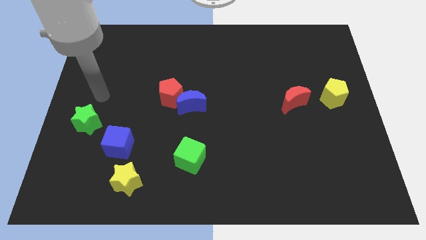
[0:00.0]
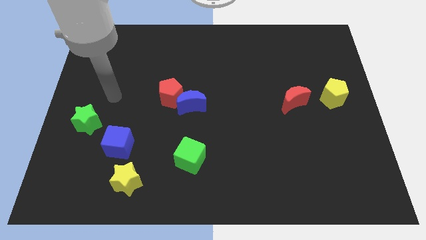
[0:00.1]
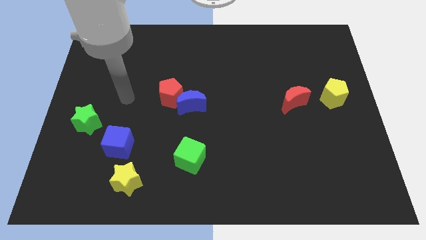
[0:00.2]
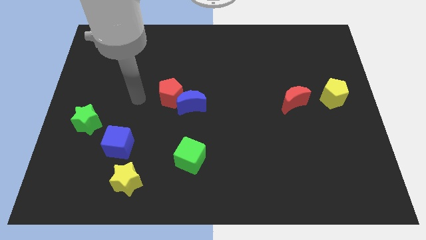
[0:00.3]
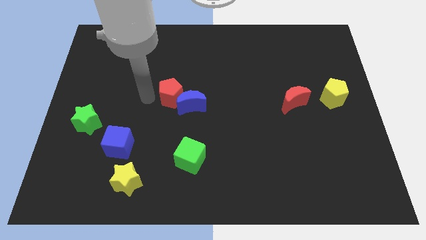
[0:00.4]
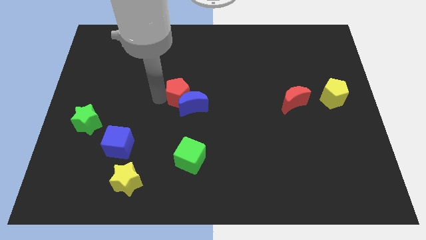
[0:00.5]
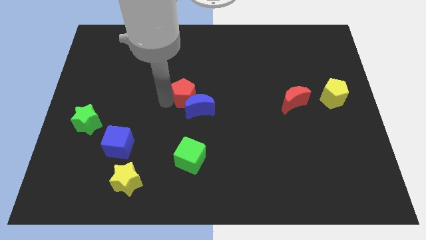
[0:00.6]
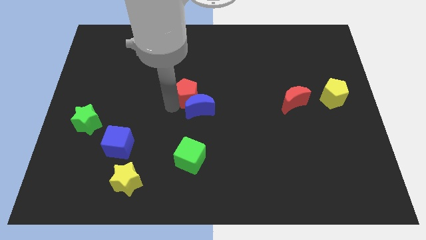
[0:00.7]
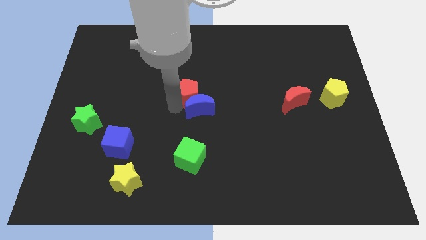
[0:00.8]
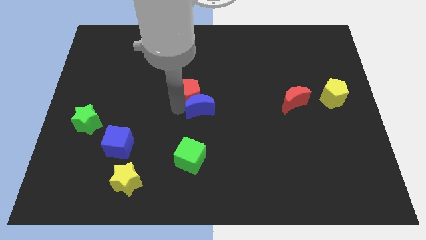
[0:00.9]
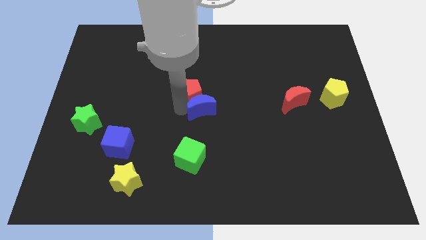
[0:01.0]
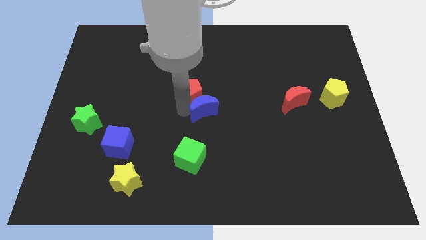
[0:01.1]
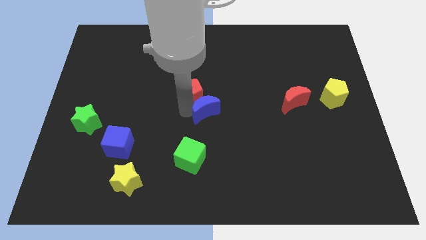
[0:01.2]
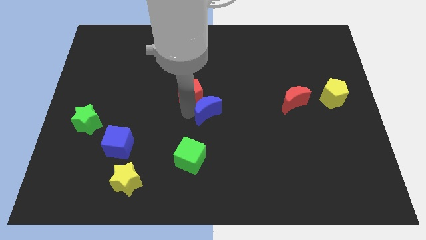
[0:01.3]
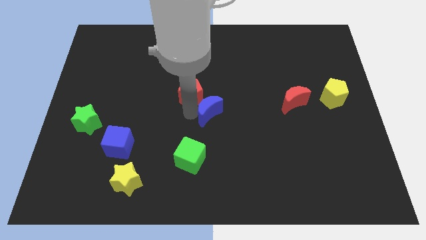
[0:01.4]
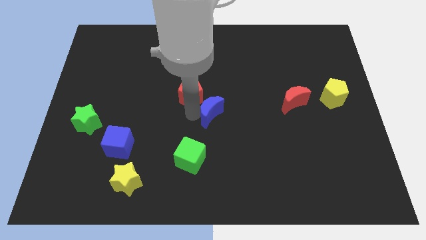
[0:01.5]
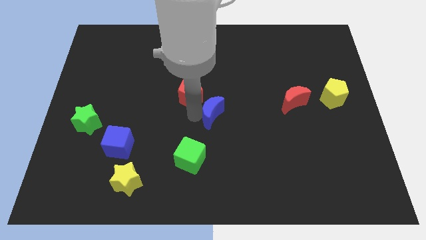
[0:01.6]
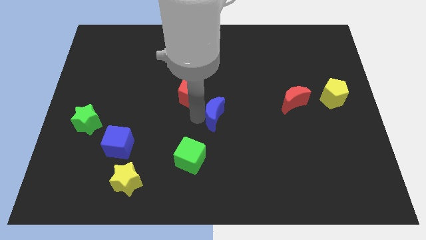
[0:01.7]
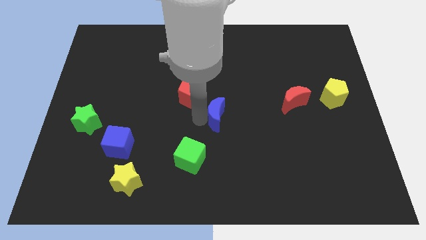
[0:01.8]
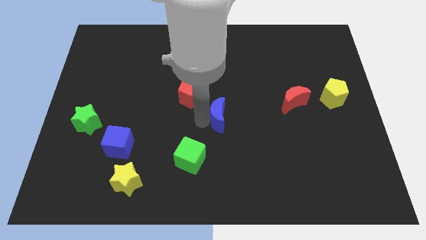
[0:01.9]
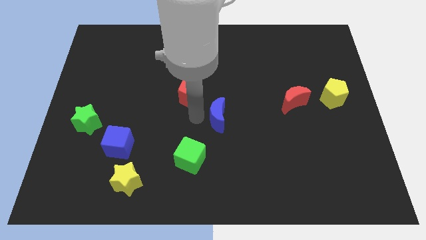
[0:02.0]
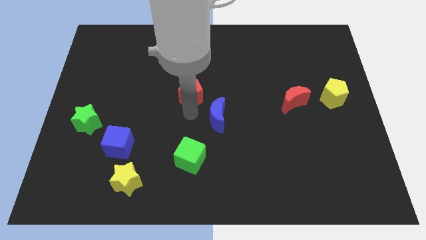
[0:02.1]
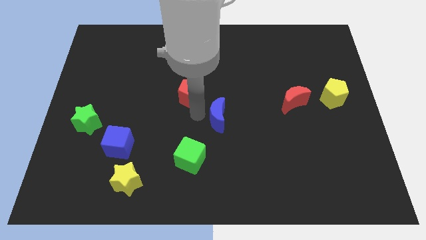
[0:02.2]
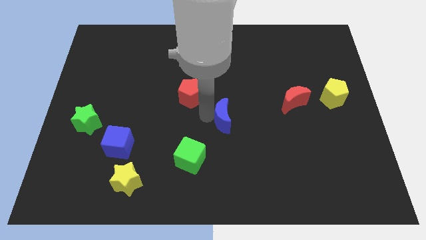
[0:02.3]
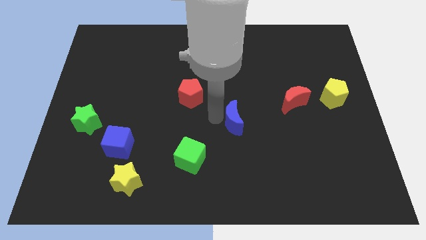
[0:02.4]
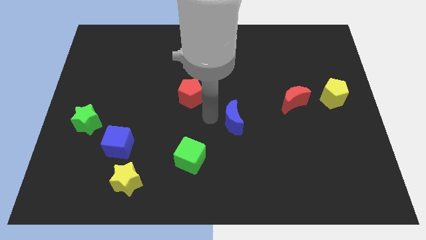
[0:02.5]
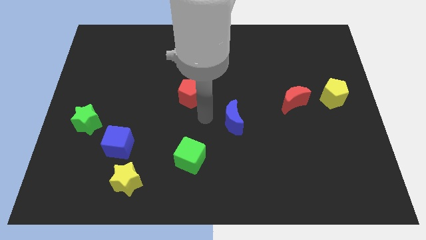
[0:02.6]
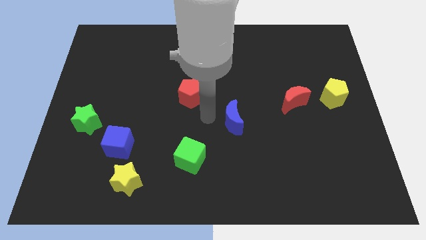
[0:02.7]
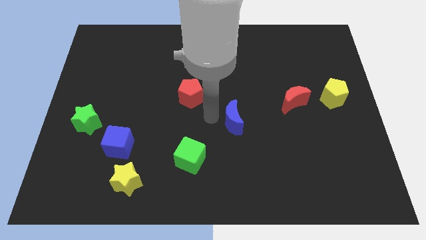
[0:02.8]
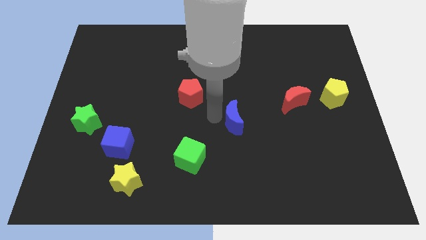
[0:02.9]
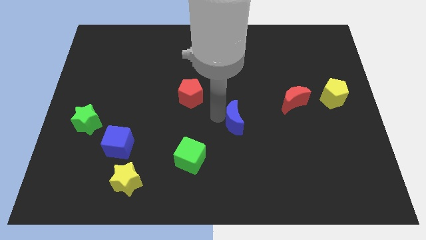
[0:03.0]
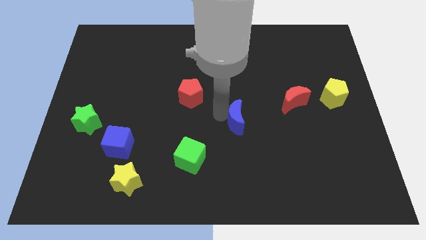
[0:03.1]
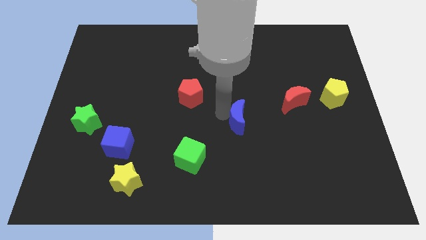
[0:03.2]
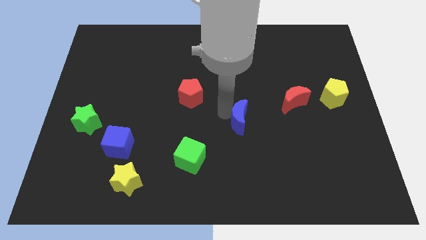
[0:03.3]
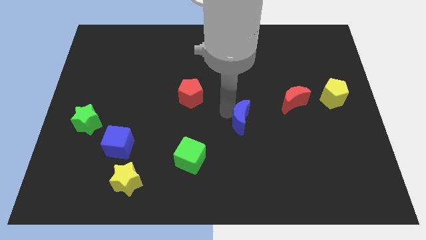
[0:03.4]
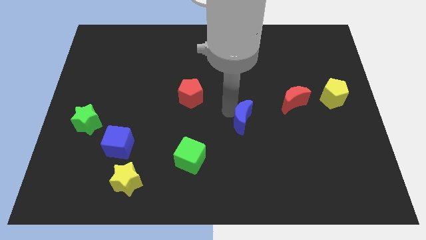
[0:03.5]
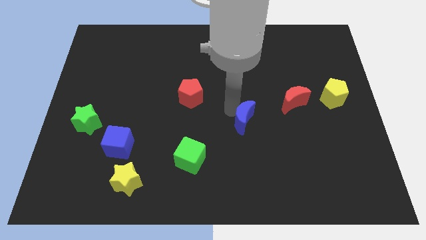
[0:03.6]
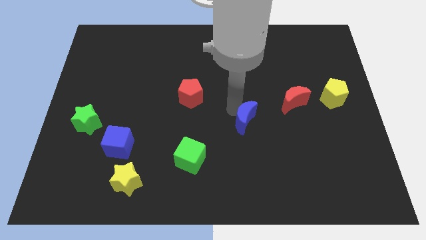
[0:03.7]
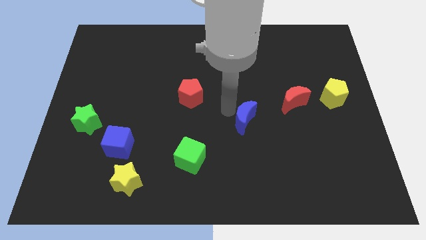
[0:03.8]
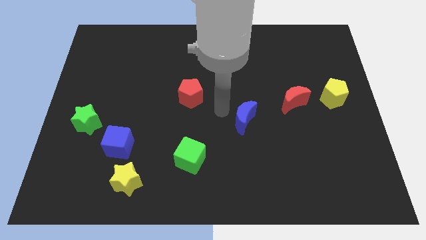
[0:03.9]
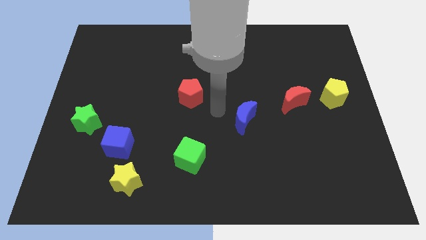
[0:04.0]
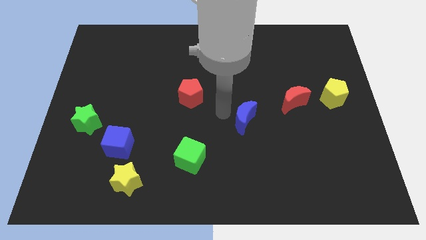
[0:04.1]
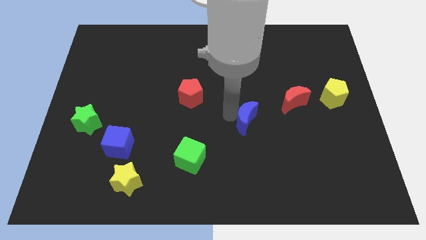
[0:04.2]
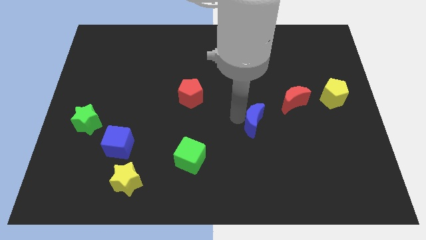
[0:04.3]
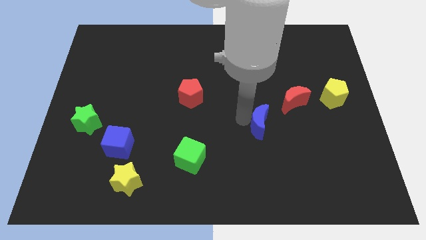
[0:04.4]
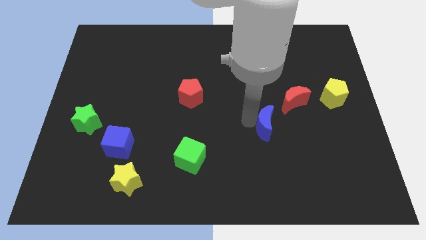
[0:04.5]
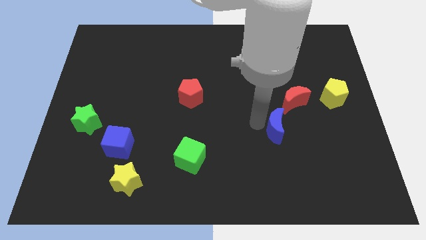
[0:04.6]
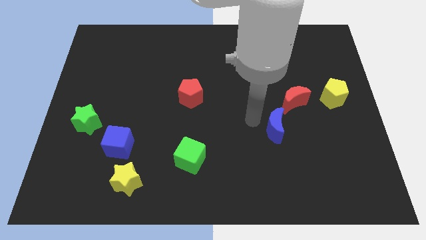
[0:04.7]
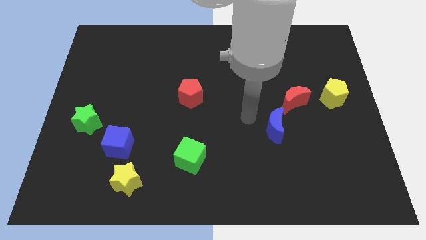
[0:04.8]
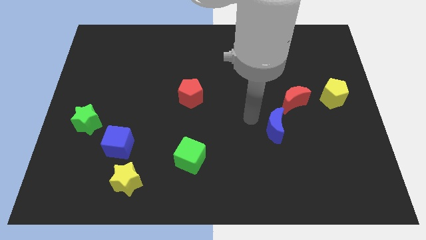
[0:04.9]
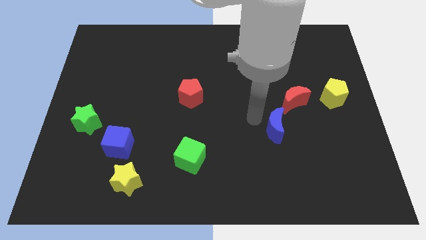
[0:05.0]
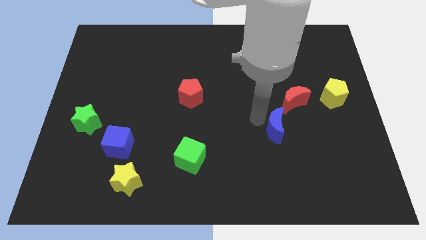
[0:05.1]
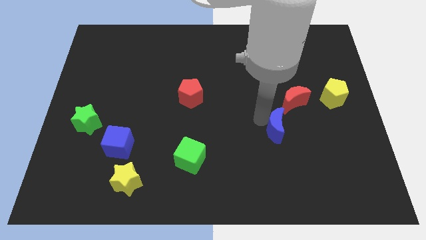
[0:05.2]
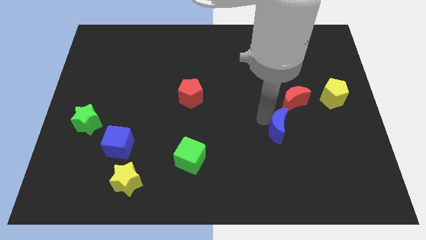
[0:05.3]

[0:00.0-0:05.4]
push the blue moon below the red moon

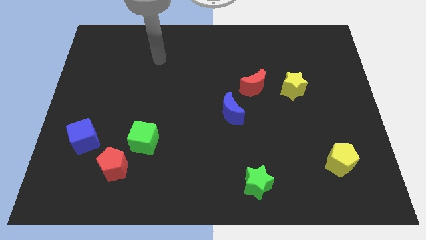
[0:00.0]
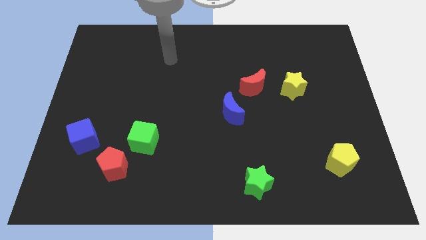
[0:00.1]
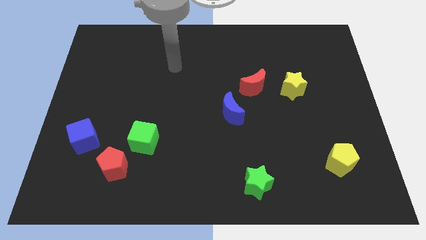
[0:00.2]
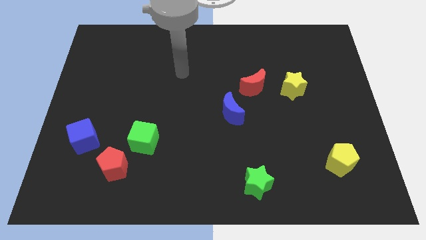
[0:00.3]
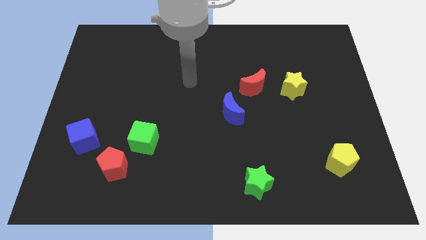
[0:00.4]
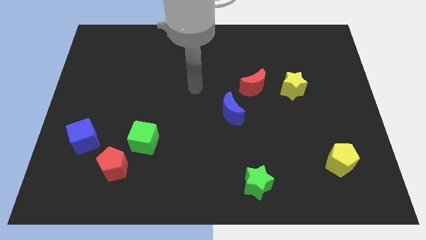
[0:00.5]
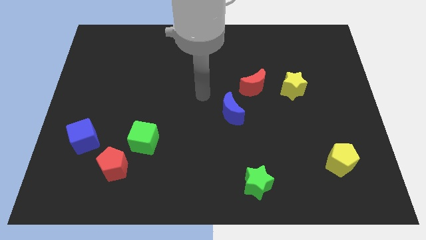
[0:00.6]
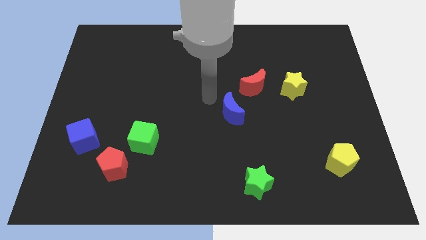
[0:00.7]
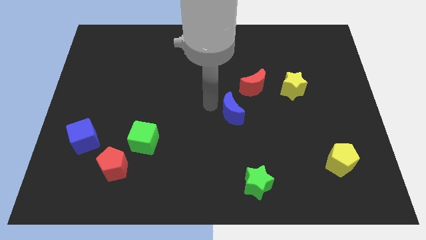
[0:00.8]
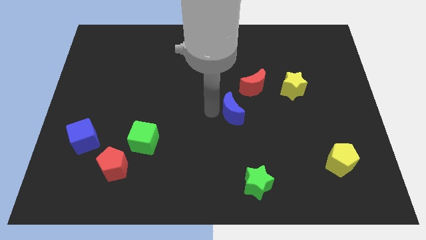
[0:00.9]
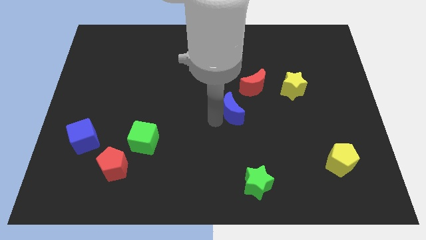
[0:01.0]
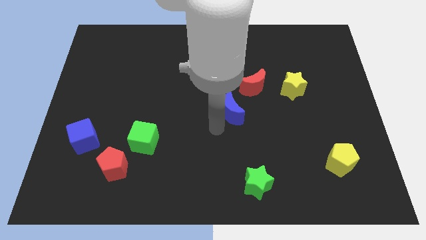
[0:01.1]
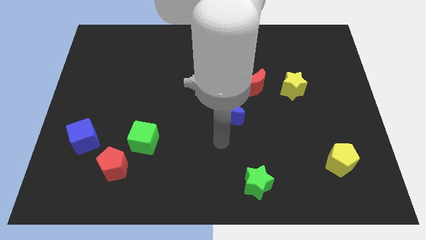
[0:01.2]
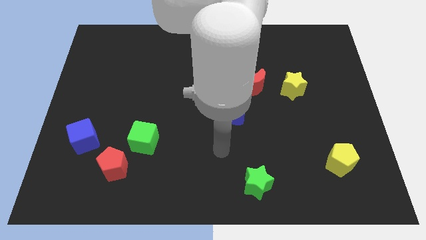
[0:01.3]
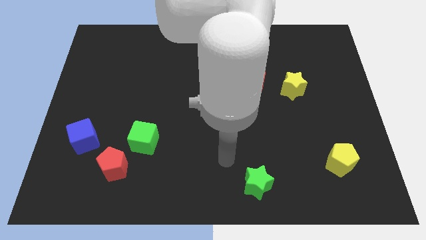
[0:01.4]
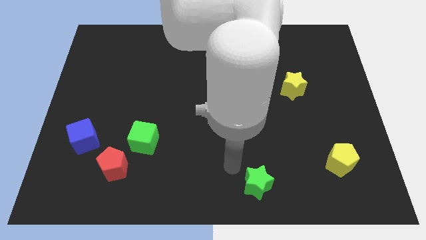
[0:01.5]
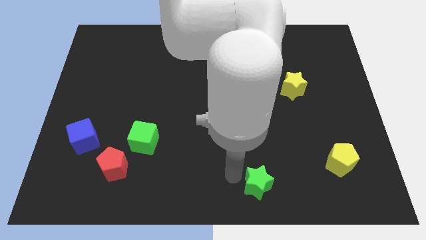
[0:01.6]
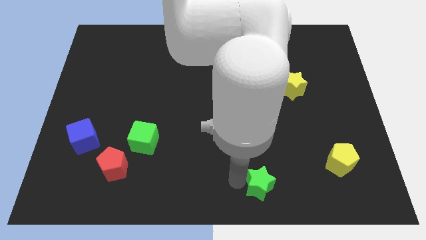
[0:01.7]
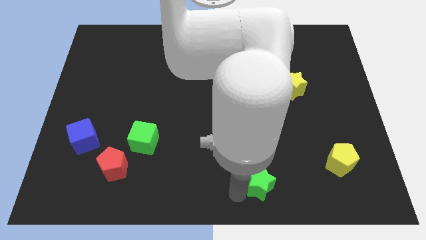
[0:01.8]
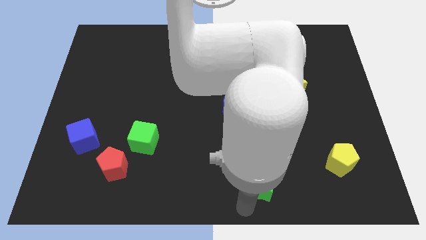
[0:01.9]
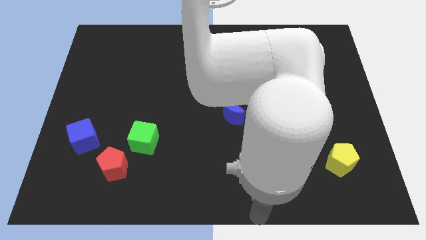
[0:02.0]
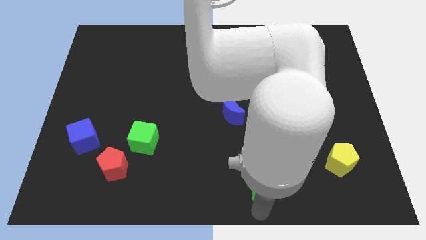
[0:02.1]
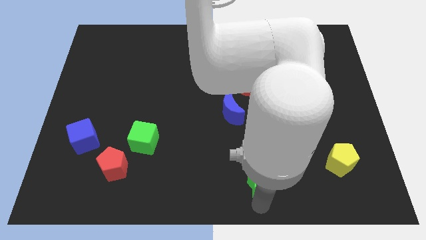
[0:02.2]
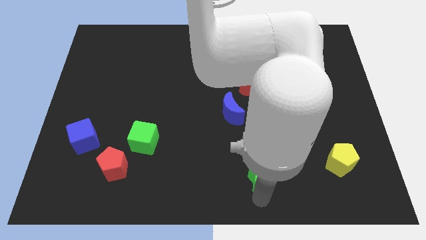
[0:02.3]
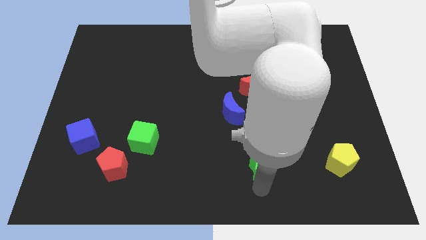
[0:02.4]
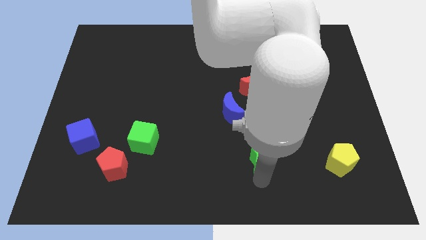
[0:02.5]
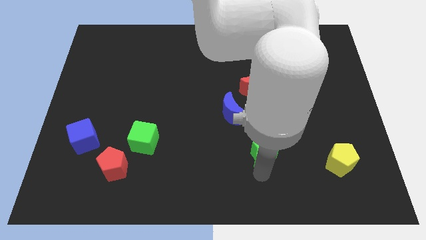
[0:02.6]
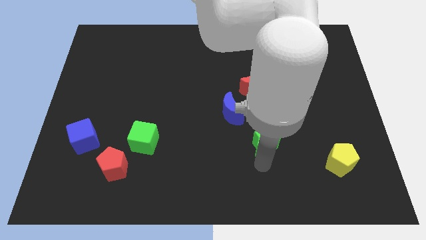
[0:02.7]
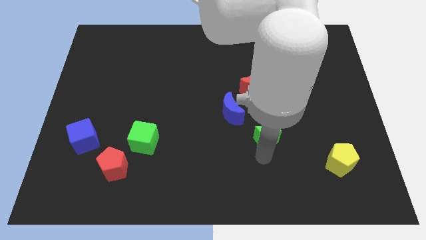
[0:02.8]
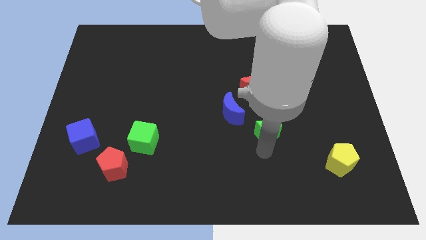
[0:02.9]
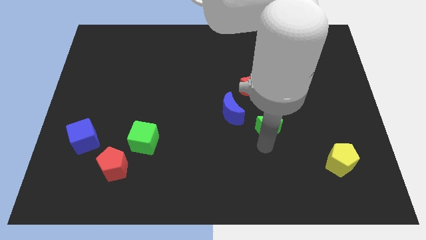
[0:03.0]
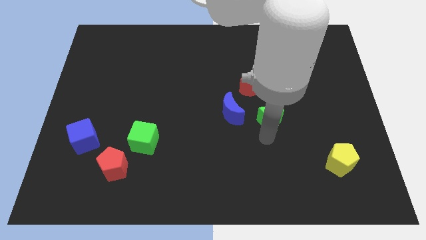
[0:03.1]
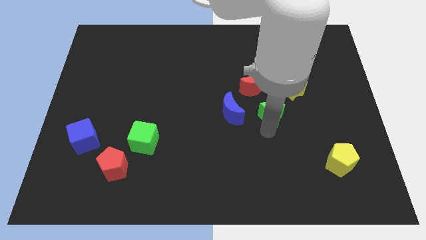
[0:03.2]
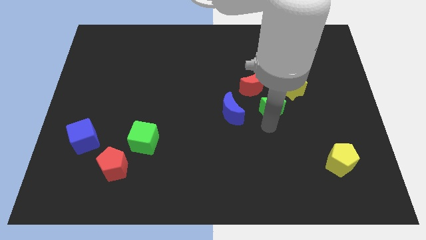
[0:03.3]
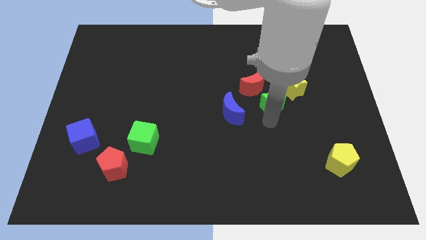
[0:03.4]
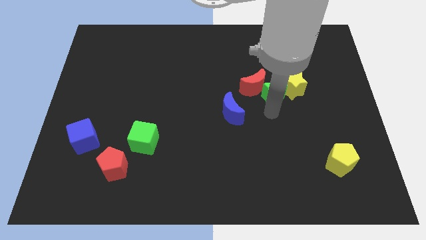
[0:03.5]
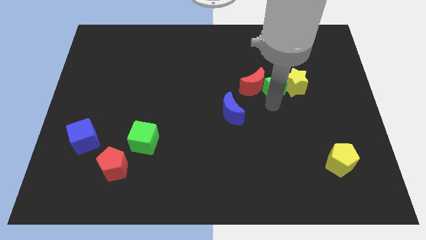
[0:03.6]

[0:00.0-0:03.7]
put the green star to the top right side of the red moon
